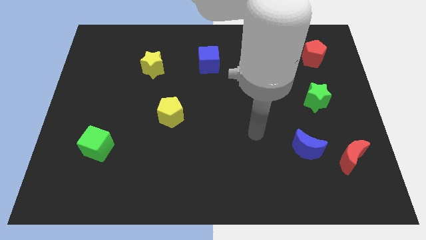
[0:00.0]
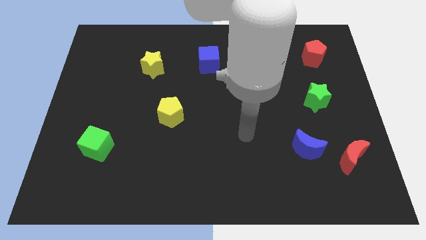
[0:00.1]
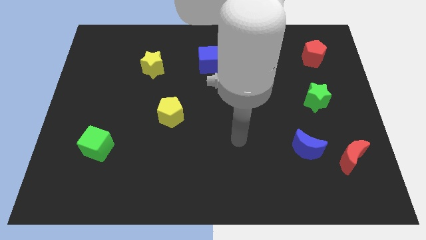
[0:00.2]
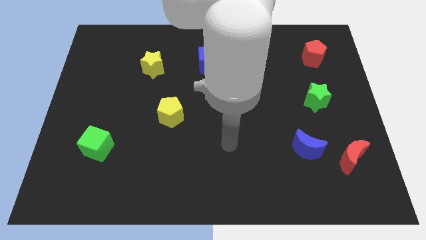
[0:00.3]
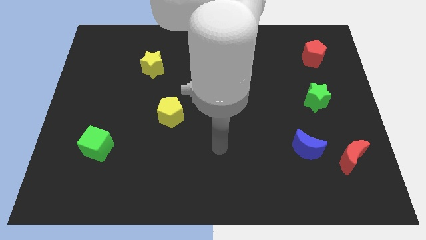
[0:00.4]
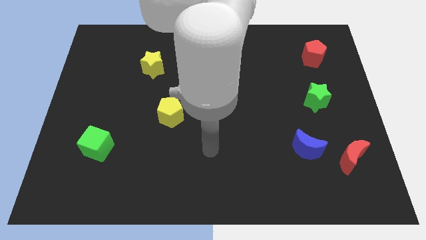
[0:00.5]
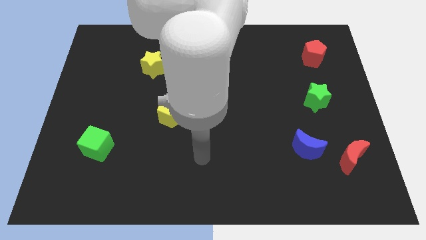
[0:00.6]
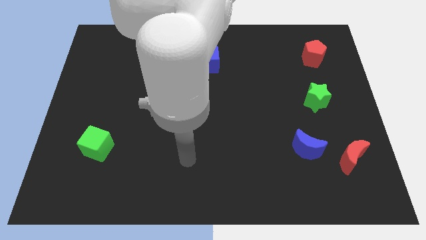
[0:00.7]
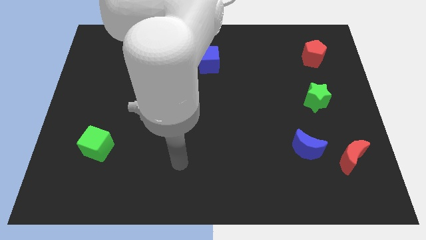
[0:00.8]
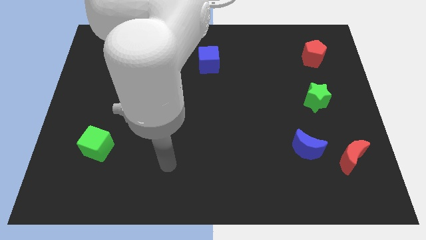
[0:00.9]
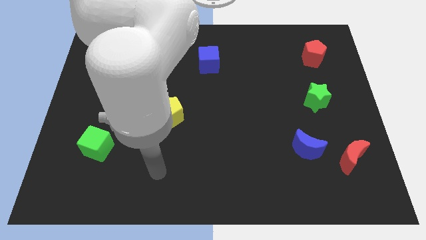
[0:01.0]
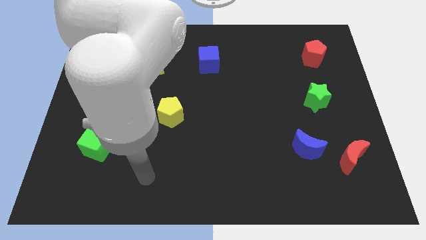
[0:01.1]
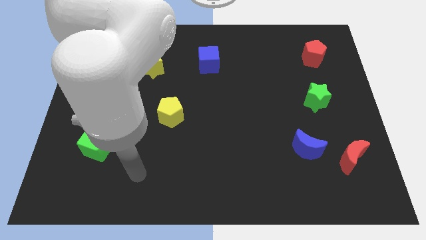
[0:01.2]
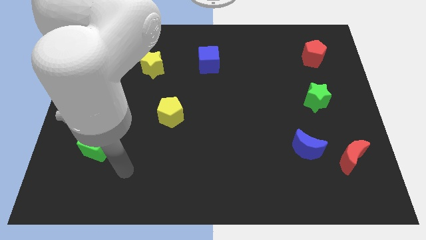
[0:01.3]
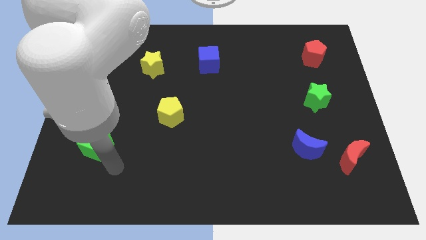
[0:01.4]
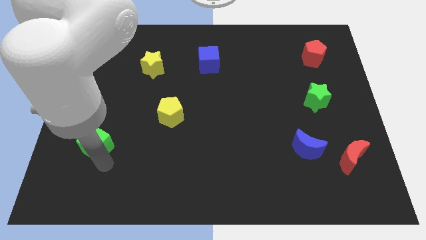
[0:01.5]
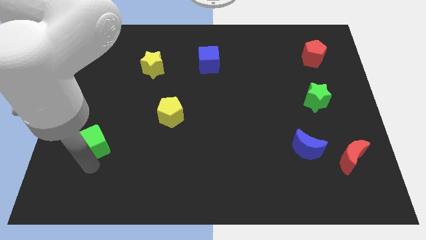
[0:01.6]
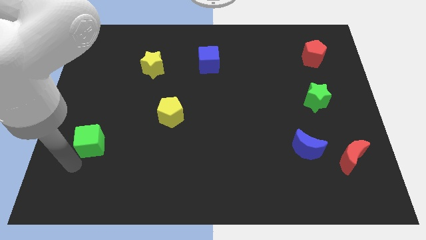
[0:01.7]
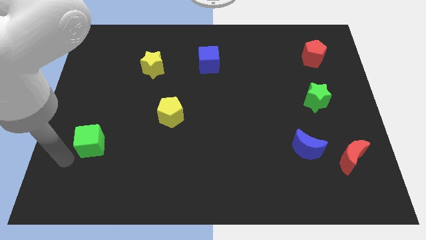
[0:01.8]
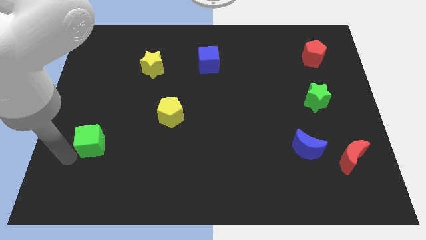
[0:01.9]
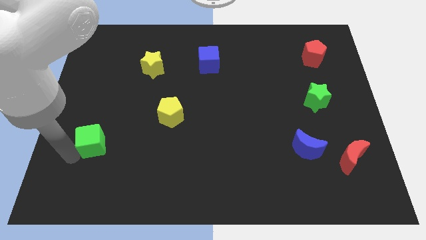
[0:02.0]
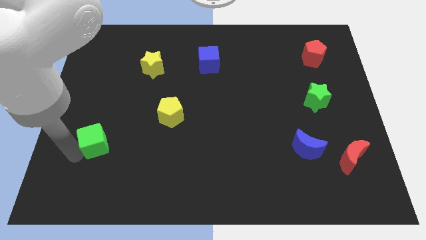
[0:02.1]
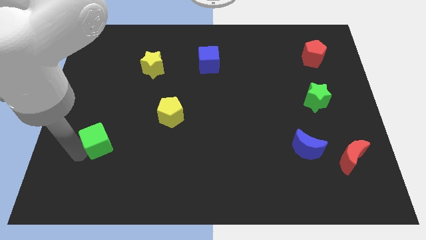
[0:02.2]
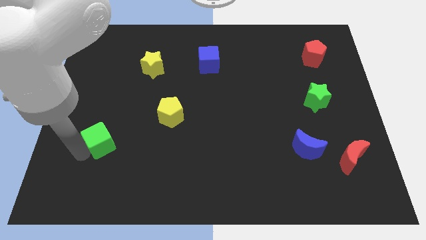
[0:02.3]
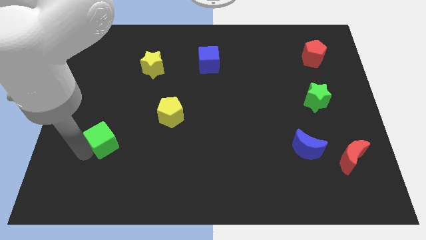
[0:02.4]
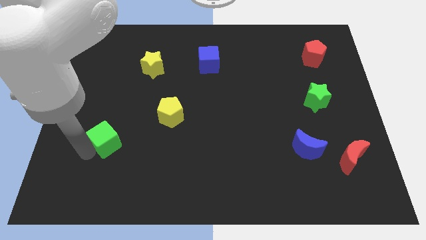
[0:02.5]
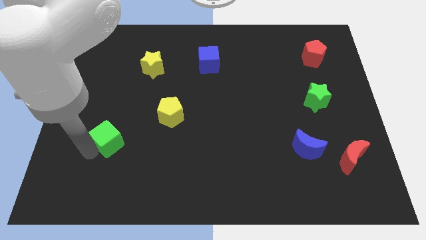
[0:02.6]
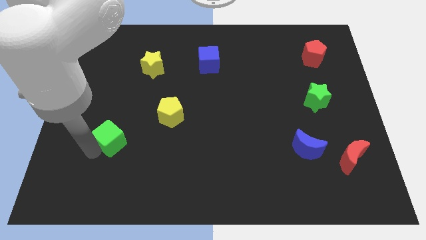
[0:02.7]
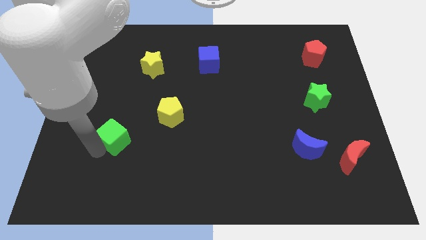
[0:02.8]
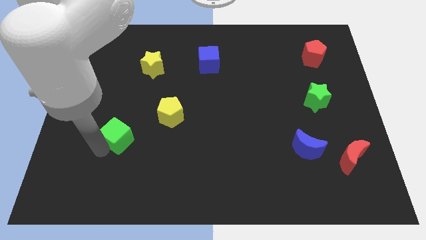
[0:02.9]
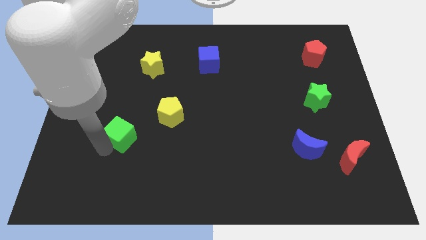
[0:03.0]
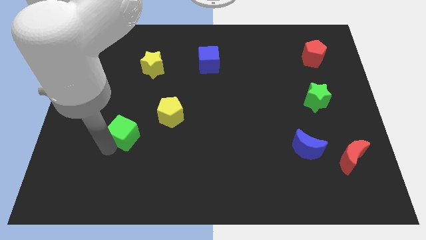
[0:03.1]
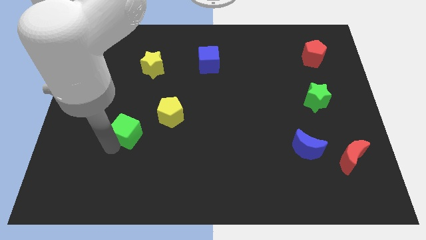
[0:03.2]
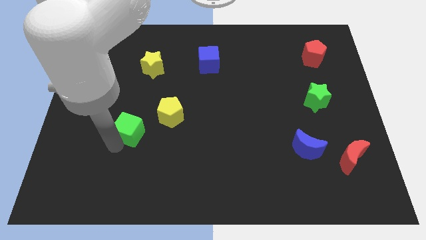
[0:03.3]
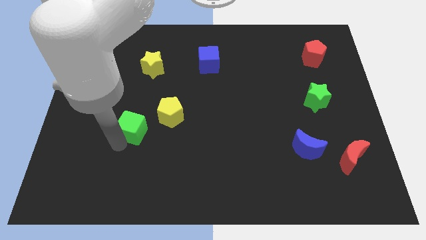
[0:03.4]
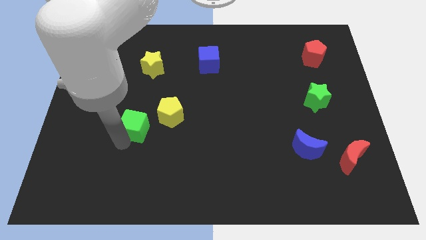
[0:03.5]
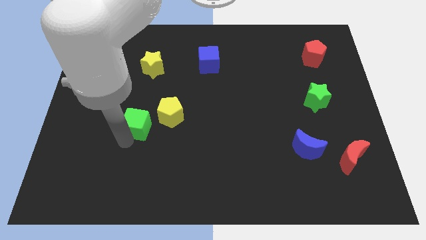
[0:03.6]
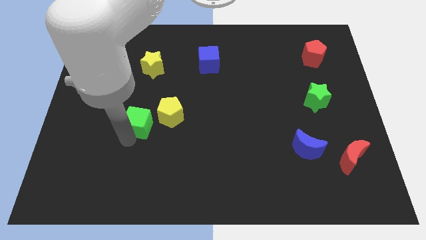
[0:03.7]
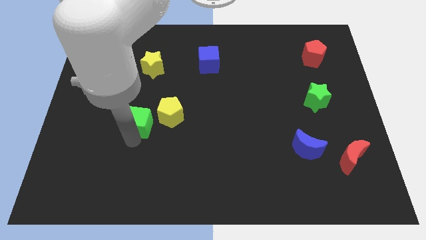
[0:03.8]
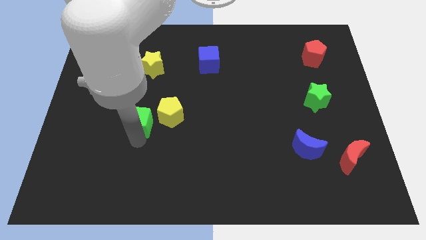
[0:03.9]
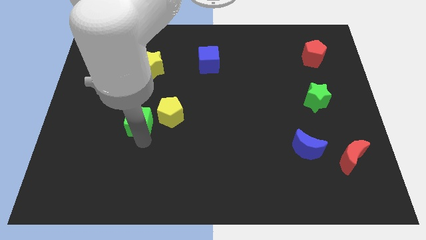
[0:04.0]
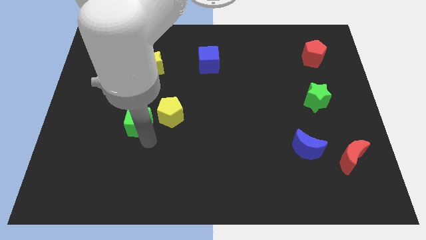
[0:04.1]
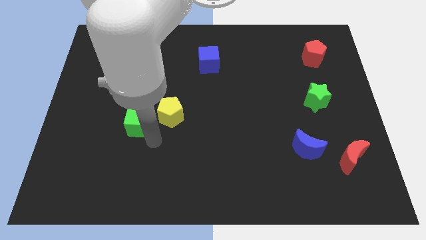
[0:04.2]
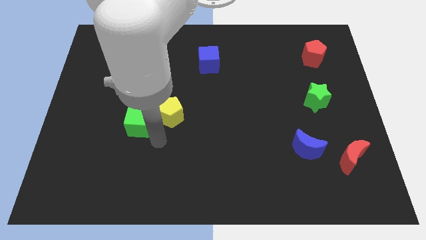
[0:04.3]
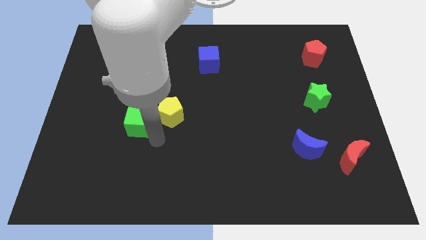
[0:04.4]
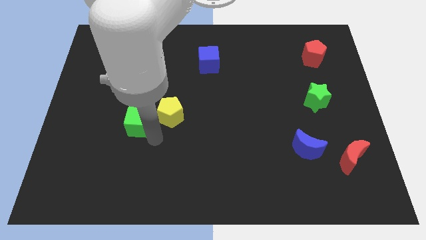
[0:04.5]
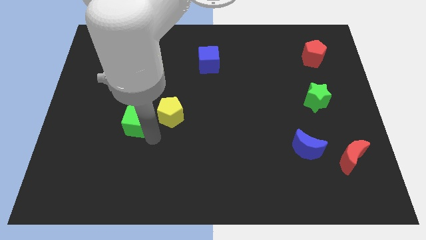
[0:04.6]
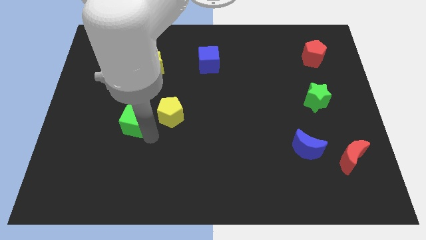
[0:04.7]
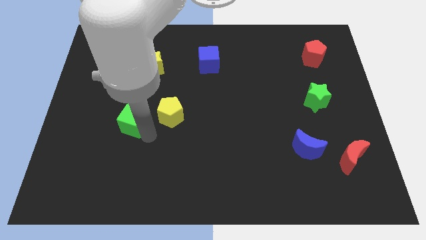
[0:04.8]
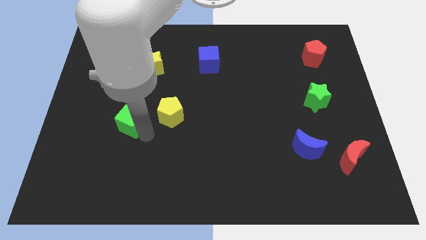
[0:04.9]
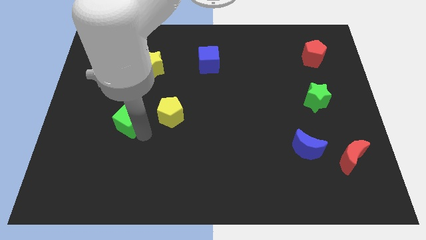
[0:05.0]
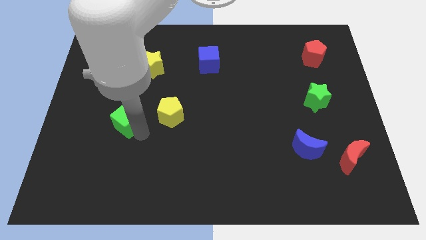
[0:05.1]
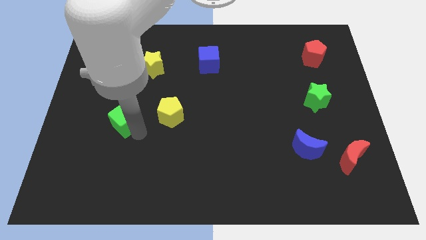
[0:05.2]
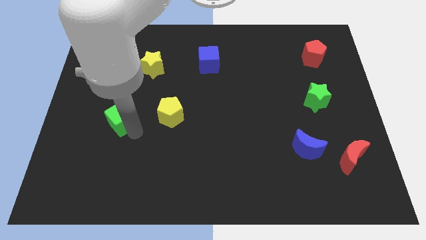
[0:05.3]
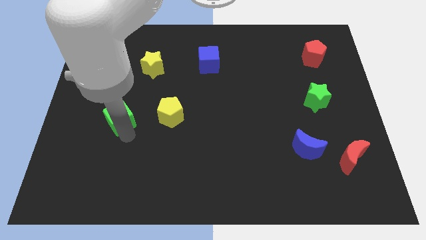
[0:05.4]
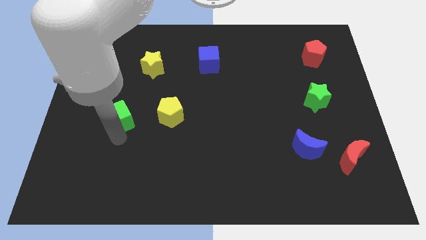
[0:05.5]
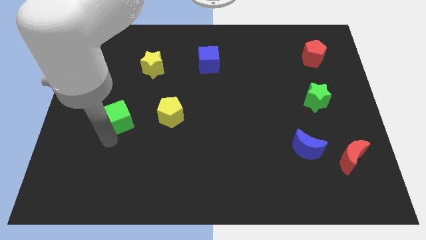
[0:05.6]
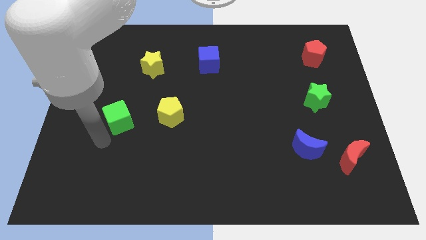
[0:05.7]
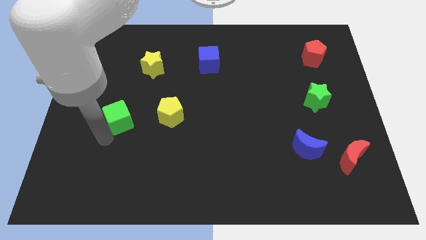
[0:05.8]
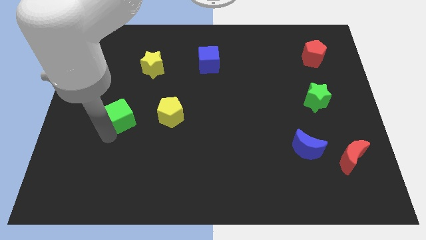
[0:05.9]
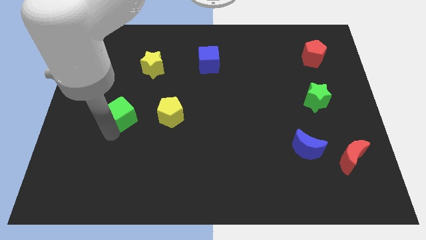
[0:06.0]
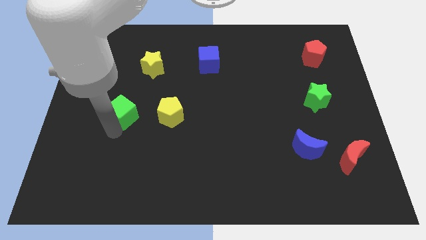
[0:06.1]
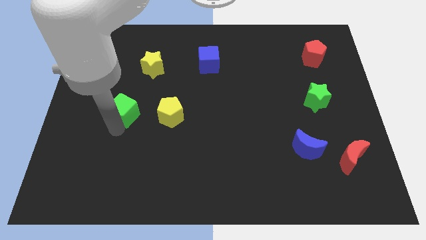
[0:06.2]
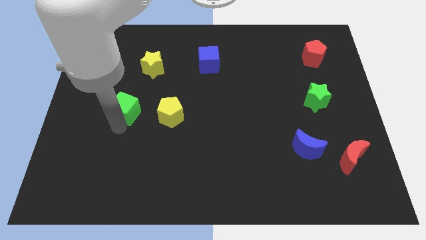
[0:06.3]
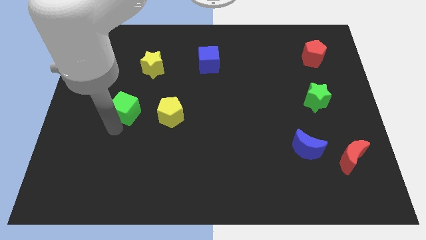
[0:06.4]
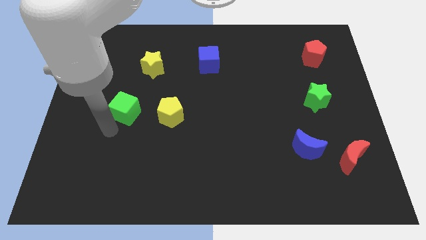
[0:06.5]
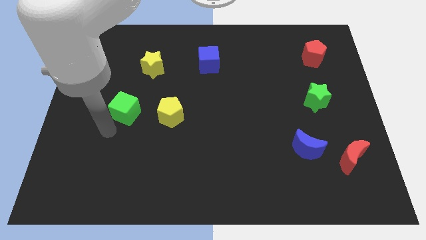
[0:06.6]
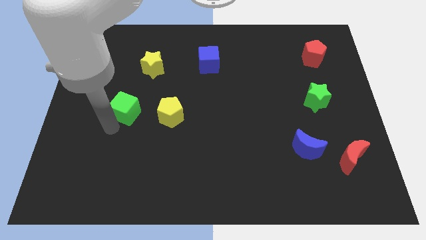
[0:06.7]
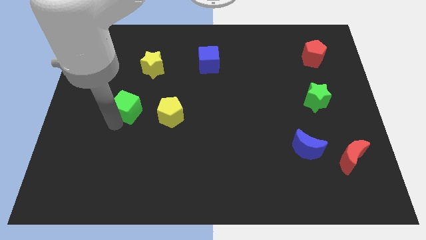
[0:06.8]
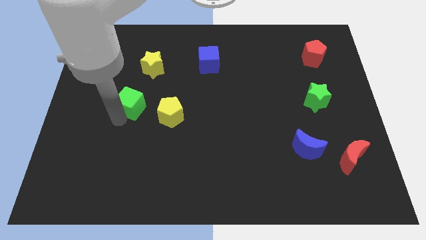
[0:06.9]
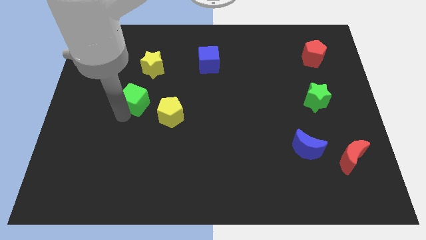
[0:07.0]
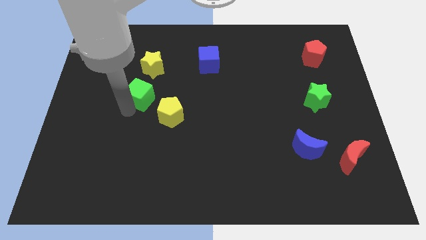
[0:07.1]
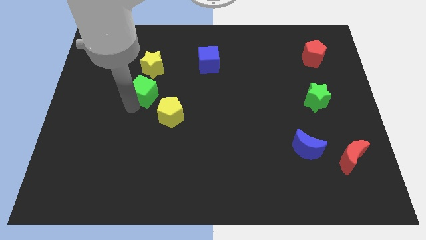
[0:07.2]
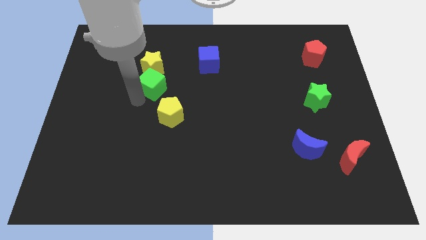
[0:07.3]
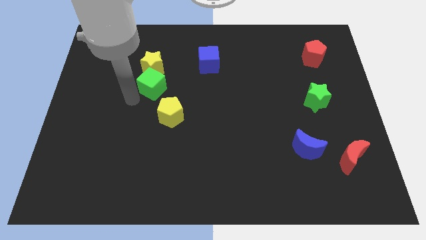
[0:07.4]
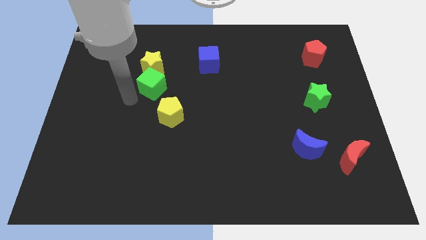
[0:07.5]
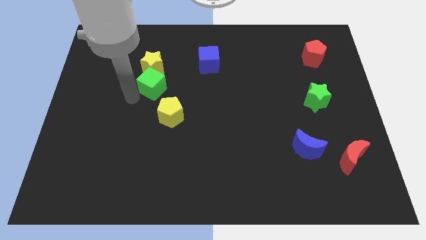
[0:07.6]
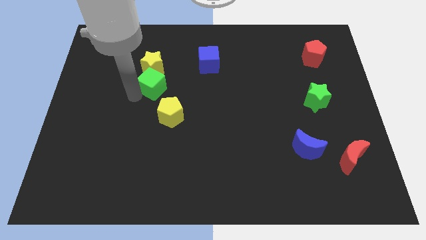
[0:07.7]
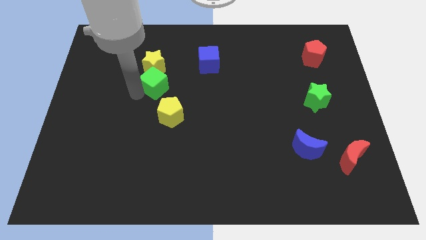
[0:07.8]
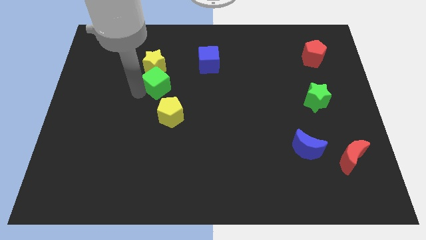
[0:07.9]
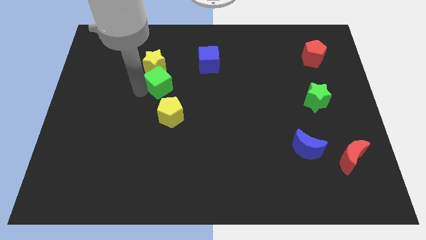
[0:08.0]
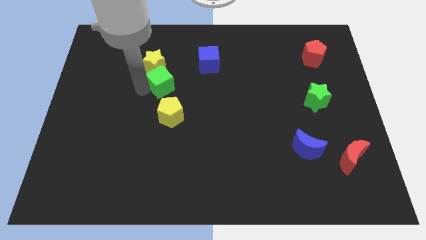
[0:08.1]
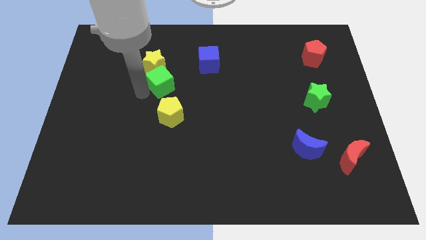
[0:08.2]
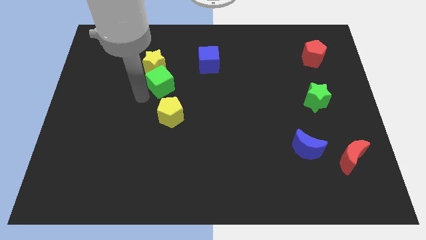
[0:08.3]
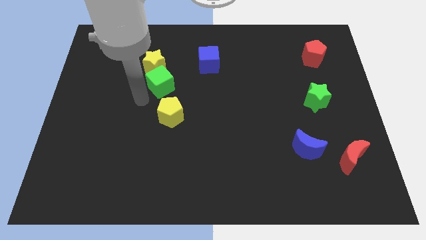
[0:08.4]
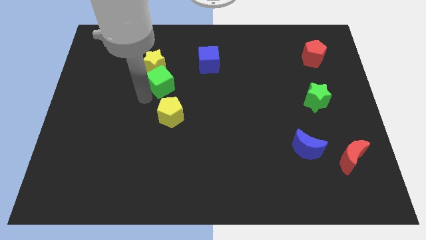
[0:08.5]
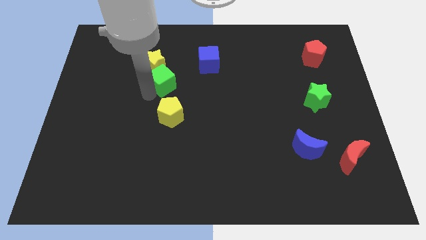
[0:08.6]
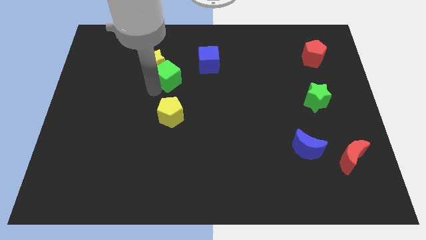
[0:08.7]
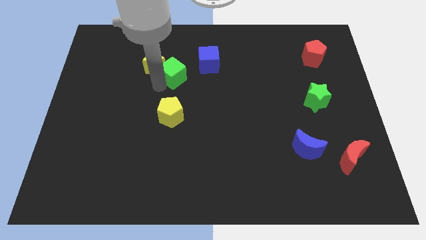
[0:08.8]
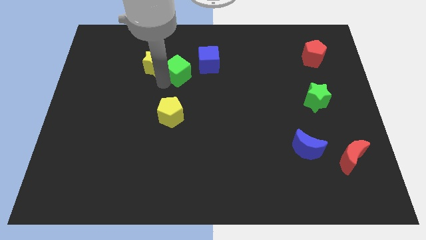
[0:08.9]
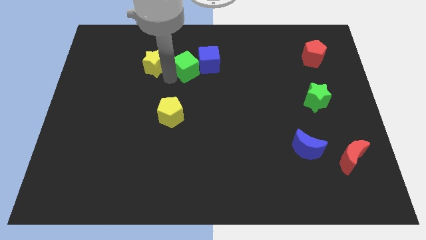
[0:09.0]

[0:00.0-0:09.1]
put the green cube towards the blue cube
